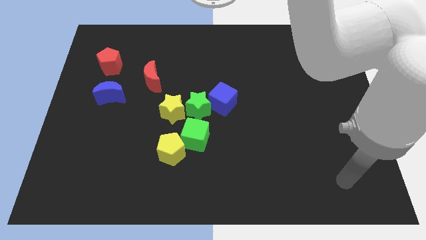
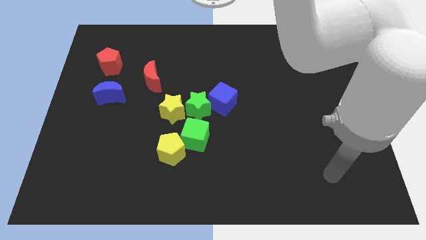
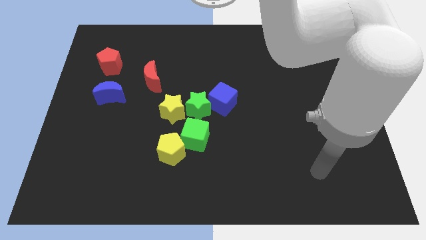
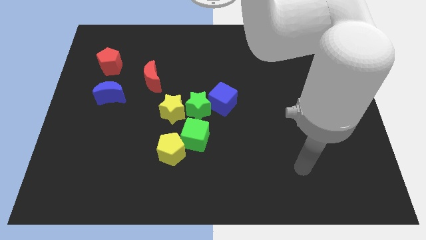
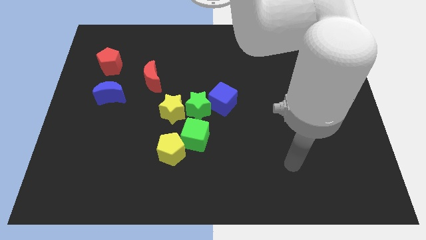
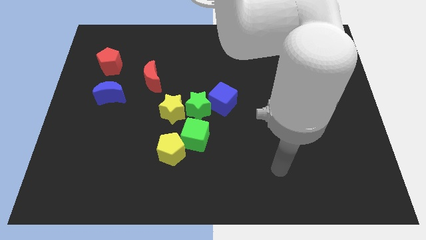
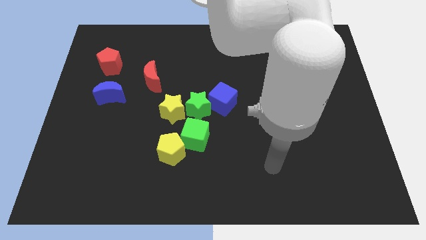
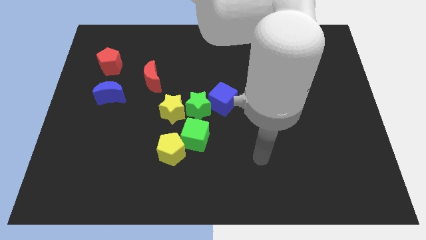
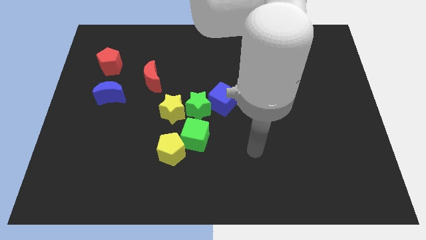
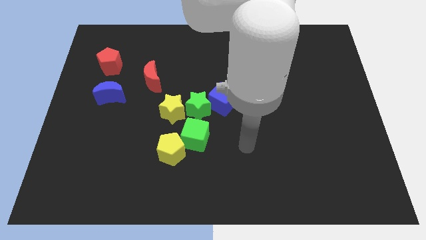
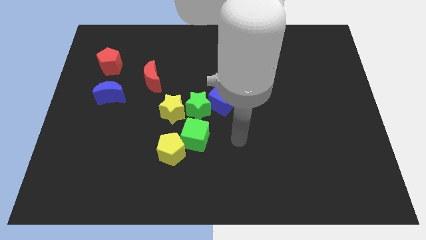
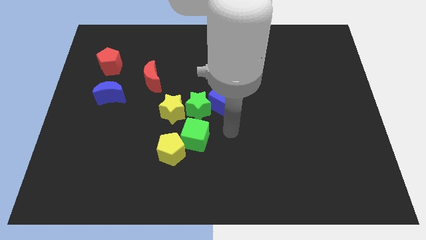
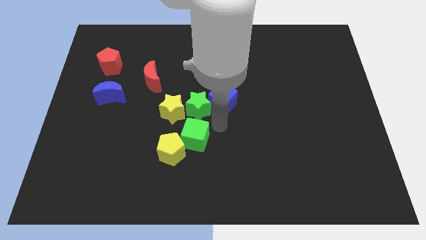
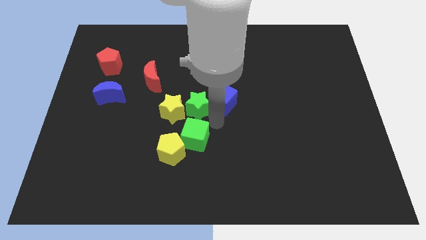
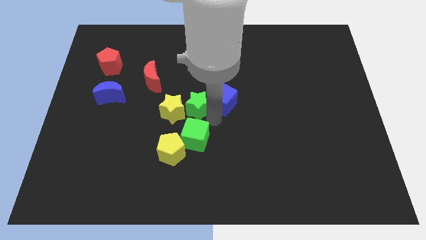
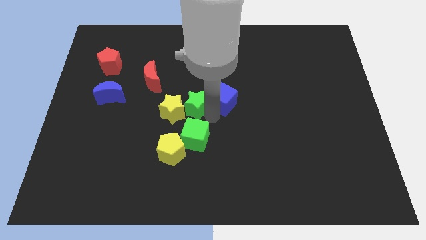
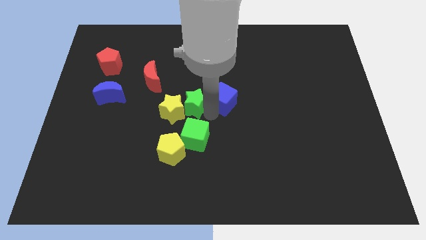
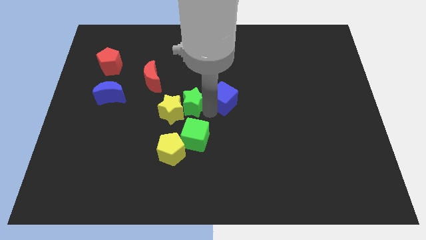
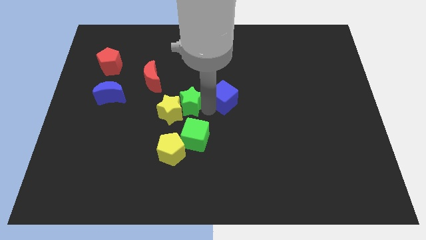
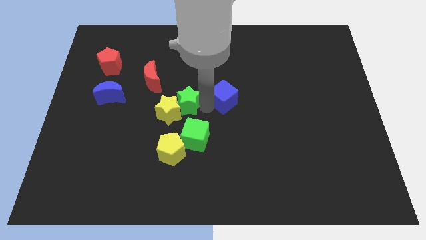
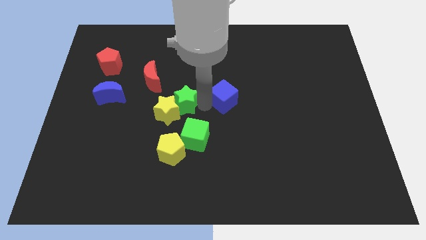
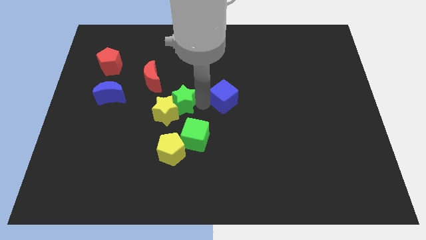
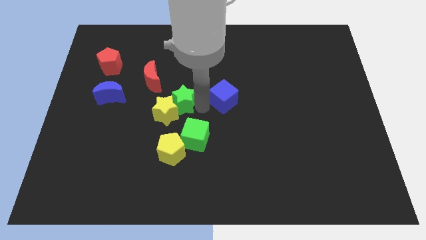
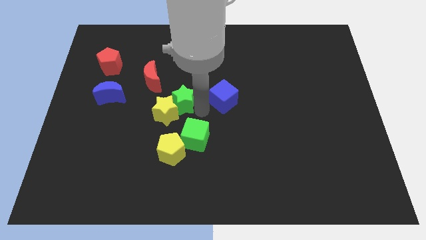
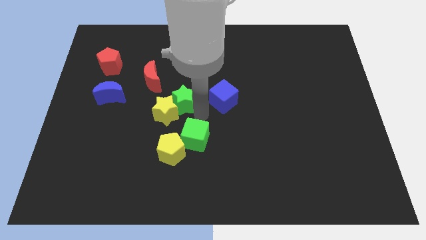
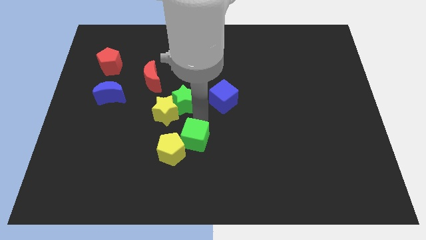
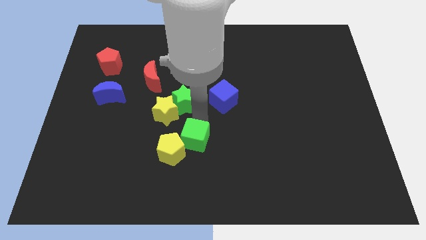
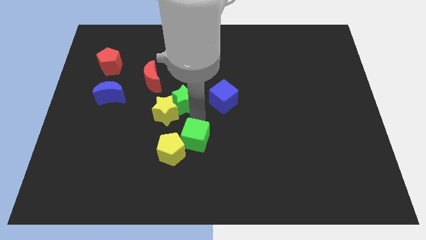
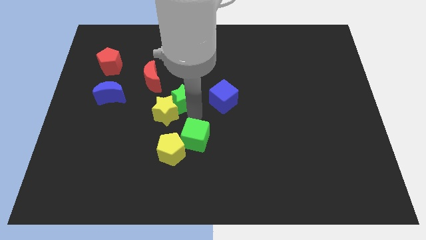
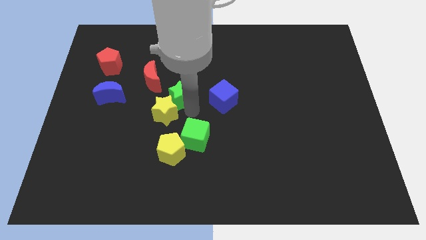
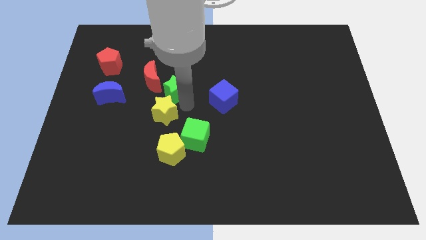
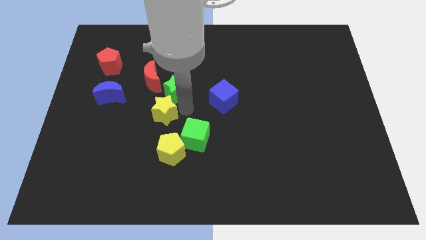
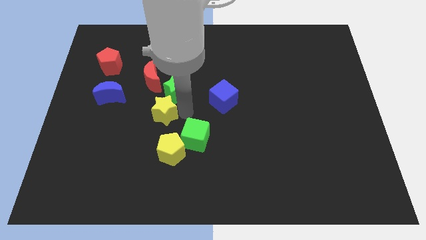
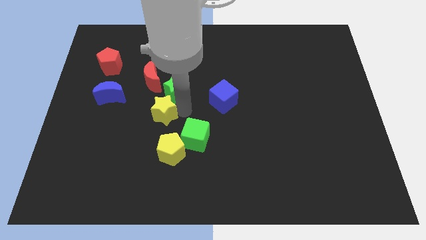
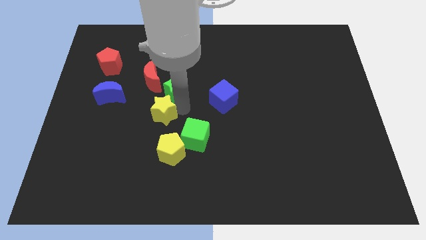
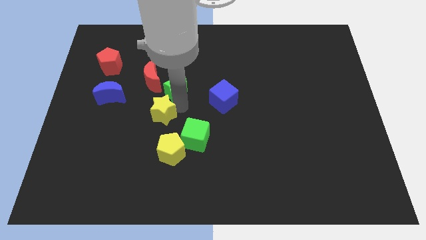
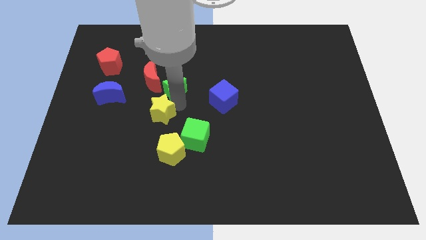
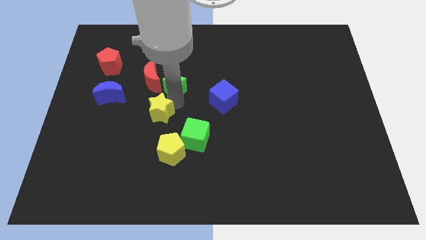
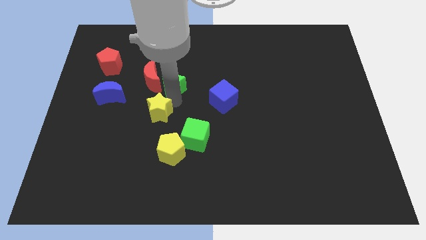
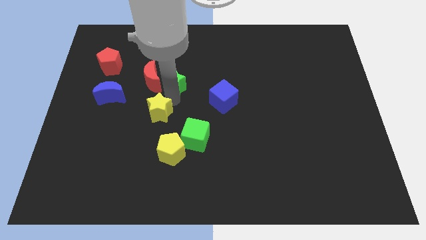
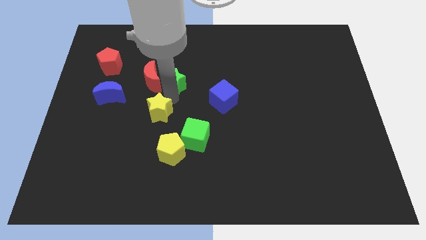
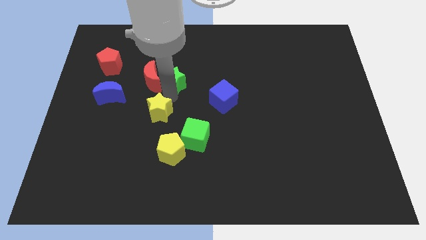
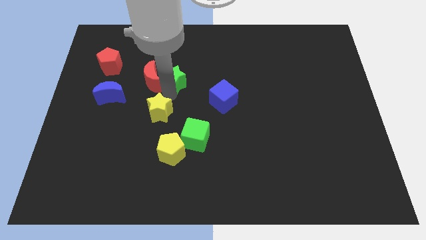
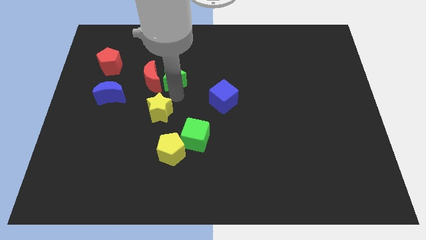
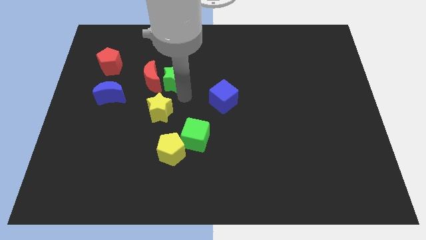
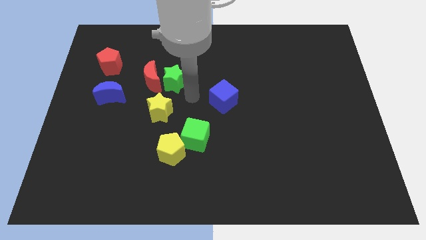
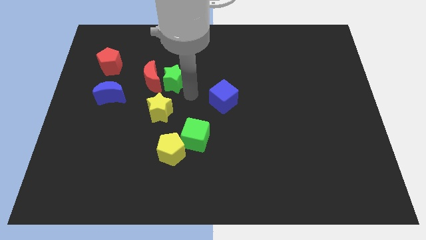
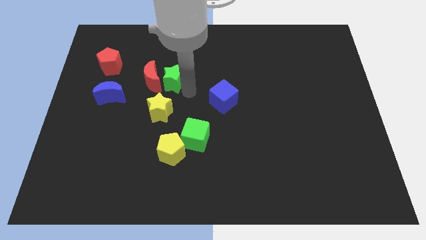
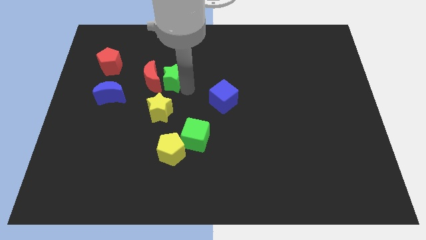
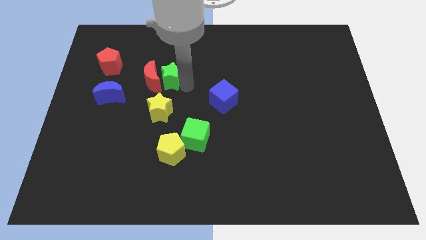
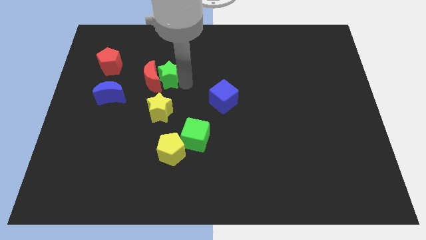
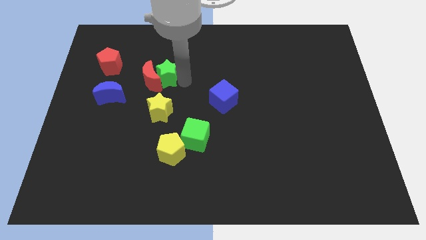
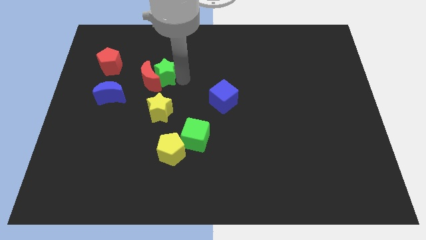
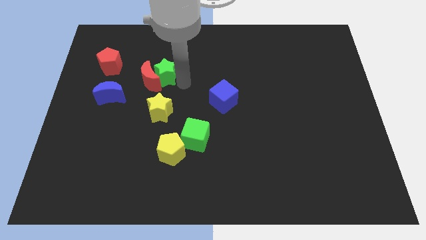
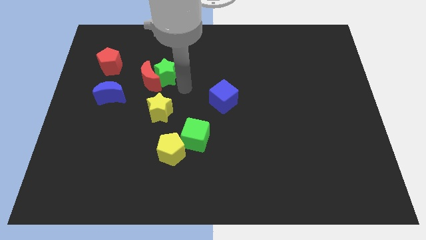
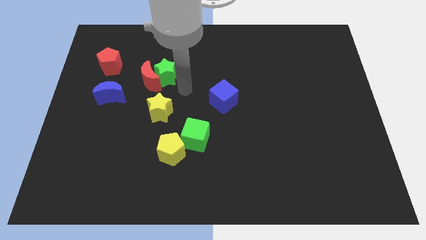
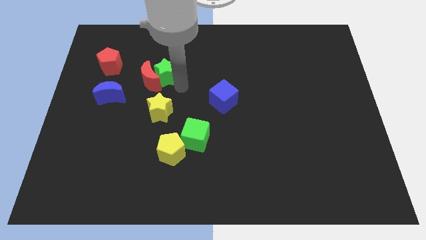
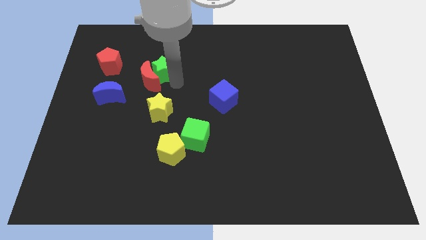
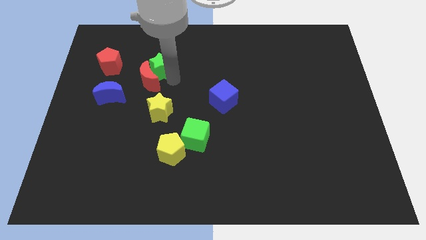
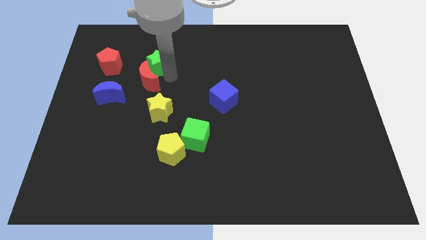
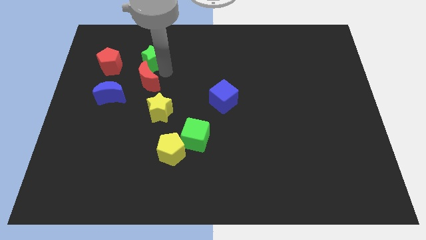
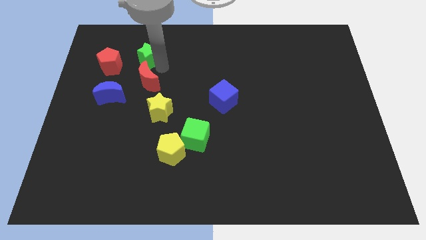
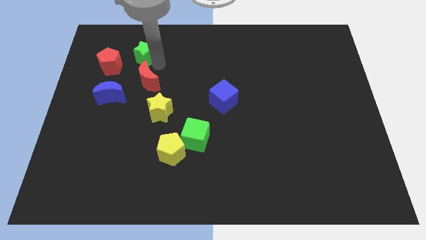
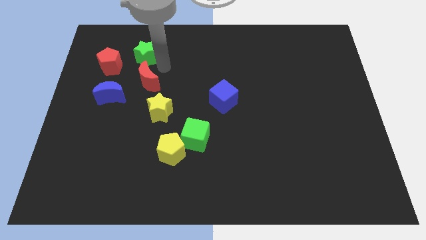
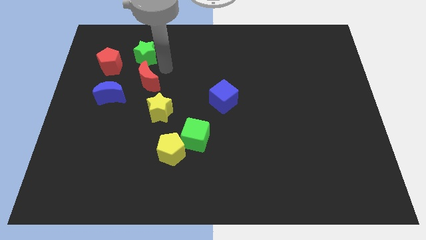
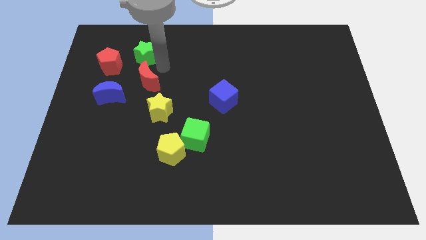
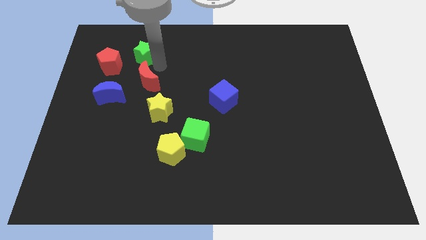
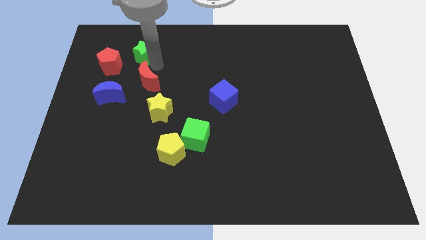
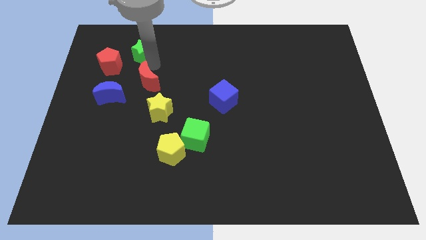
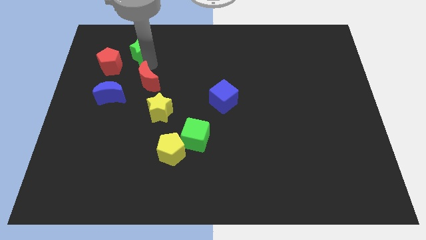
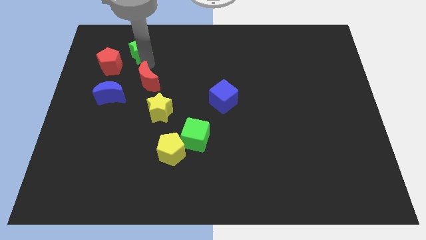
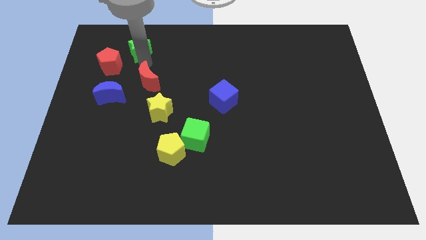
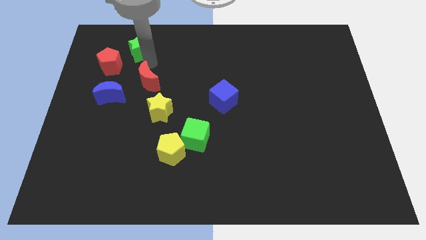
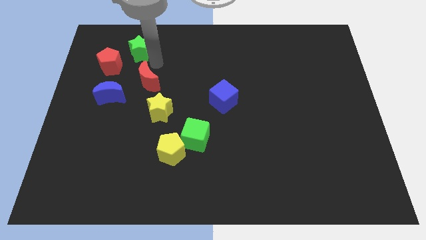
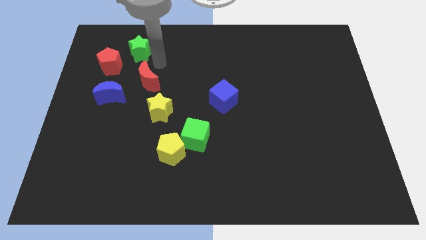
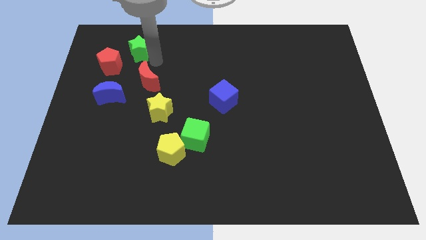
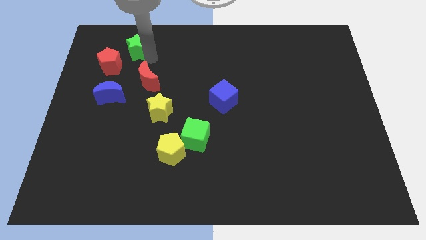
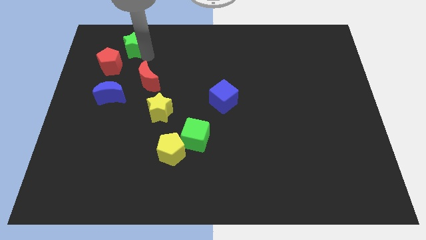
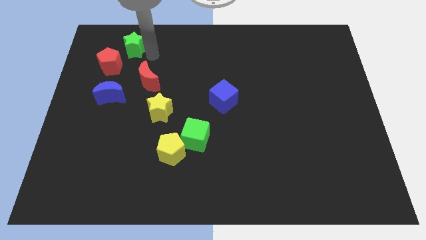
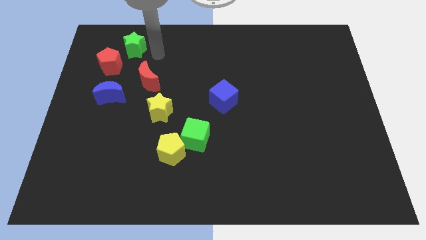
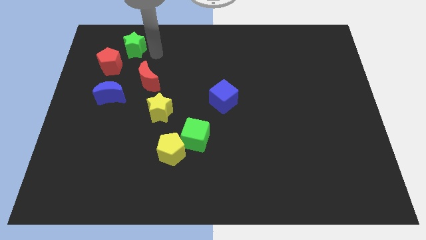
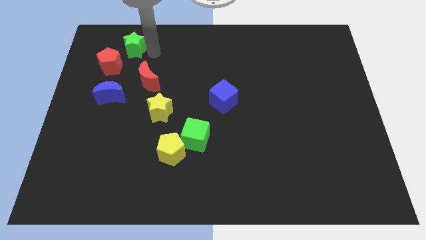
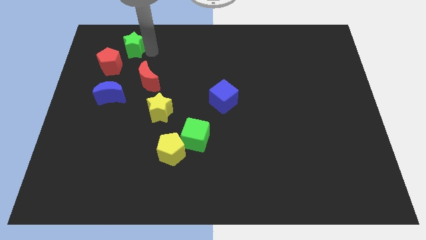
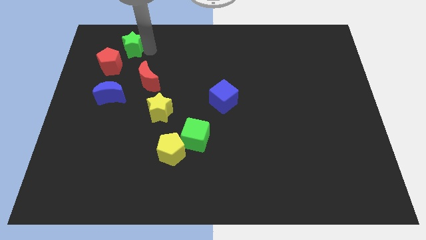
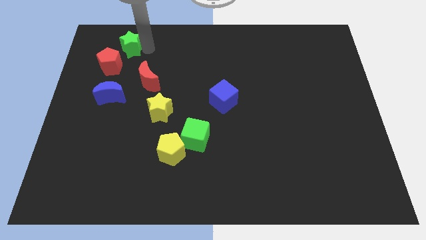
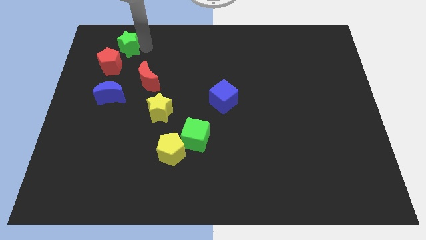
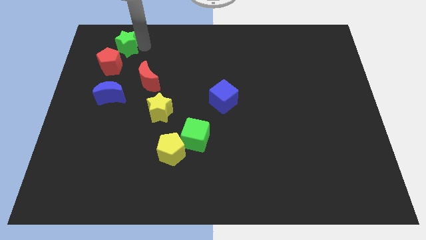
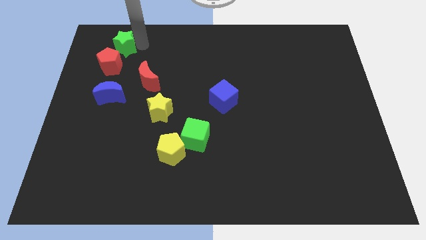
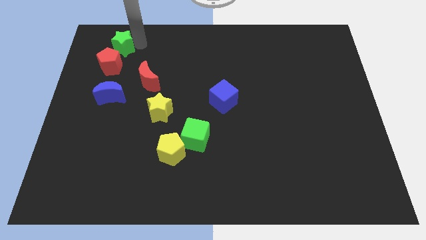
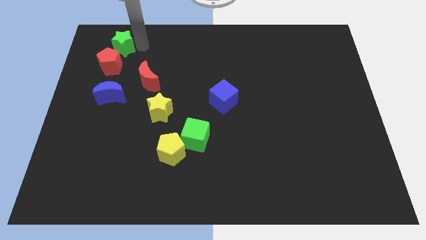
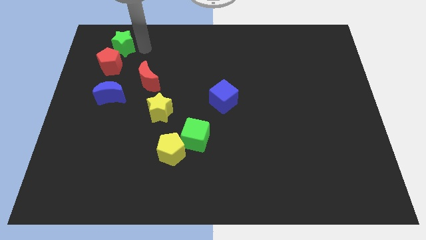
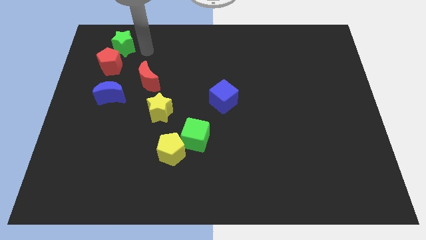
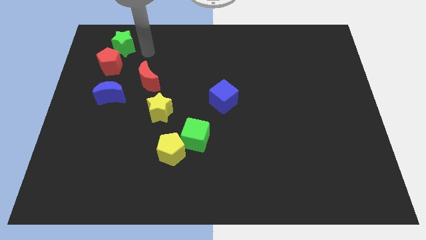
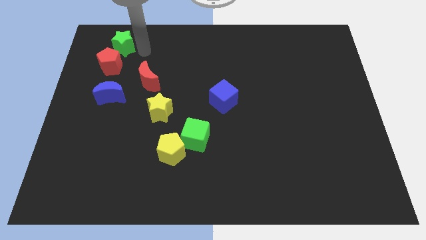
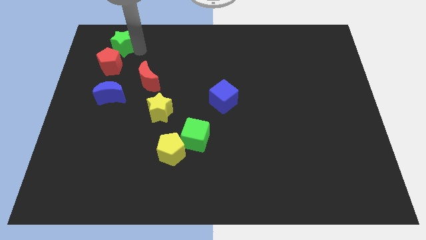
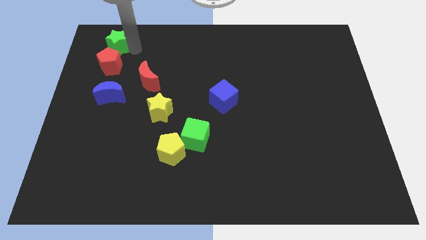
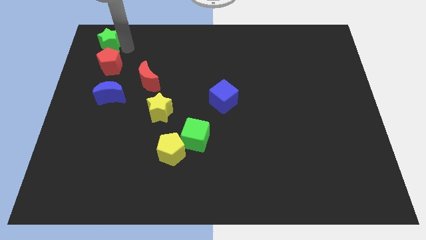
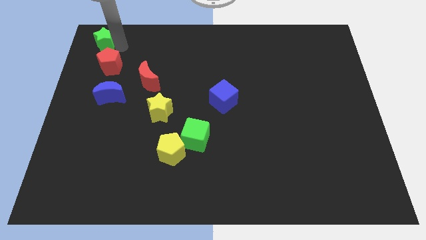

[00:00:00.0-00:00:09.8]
push the green star to the upper left corner
